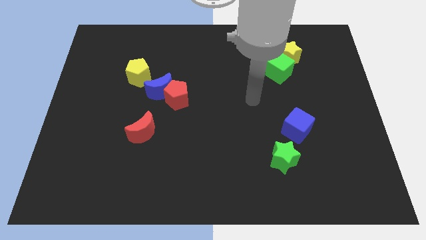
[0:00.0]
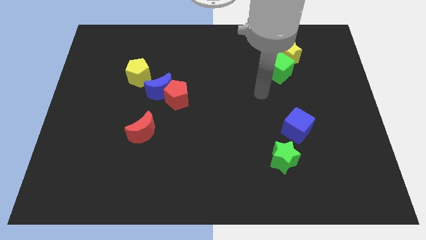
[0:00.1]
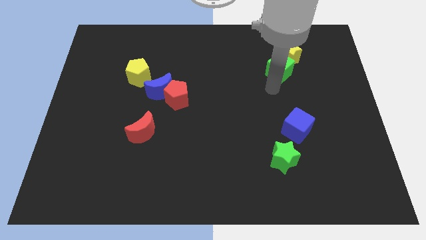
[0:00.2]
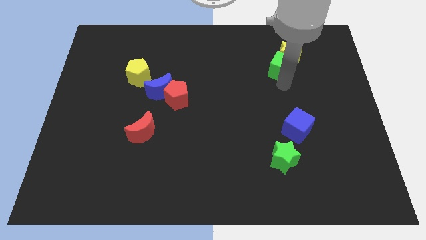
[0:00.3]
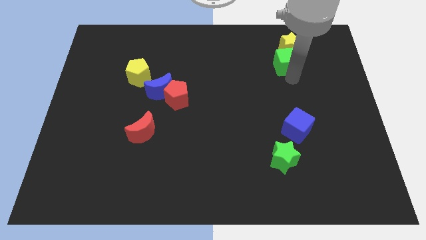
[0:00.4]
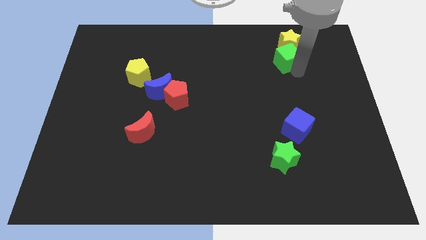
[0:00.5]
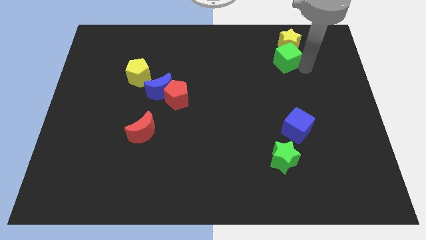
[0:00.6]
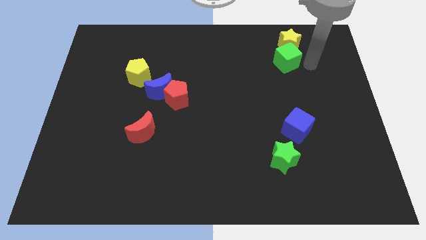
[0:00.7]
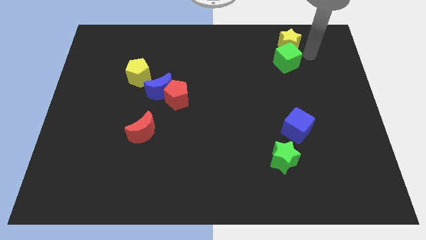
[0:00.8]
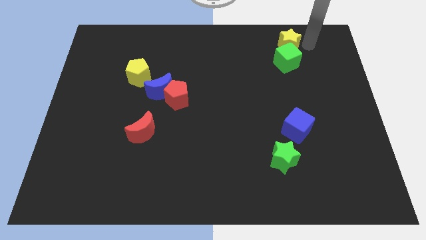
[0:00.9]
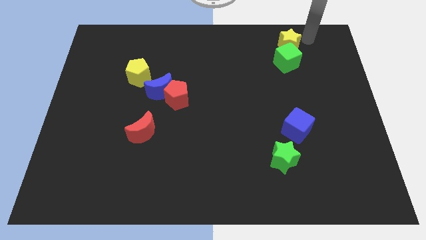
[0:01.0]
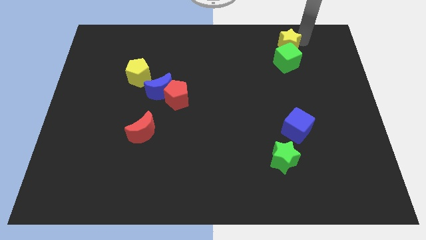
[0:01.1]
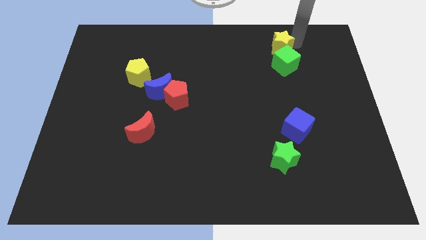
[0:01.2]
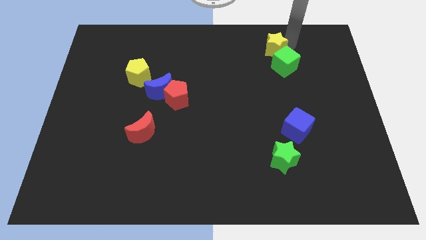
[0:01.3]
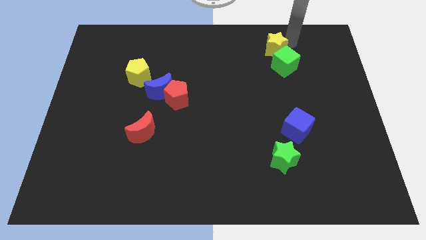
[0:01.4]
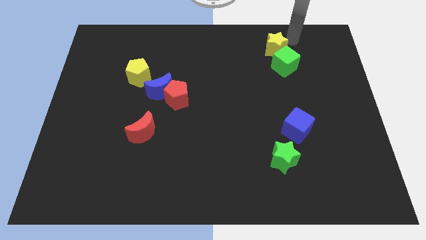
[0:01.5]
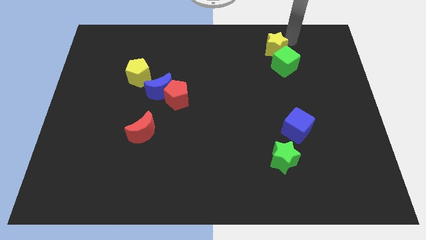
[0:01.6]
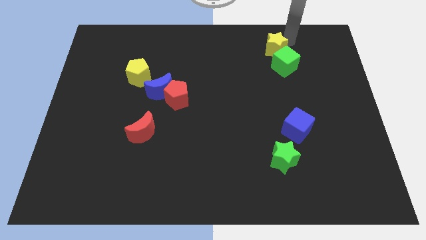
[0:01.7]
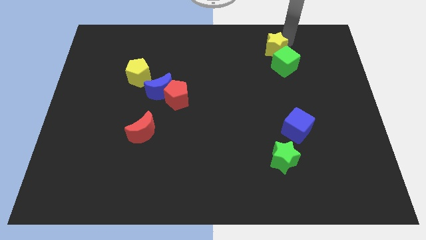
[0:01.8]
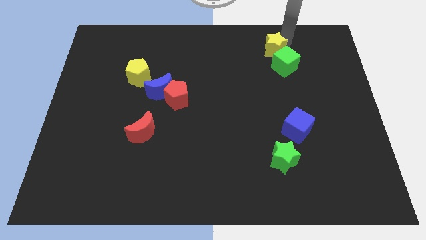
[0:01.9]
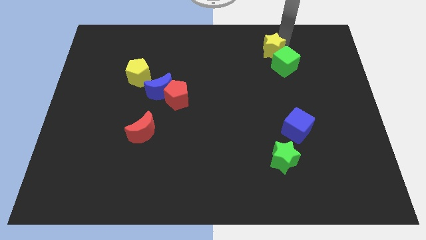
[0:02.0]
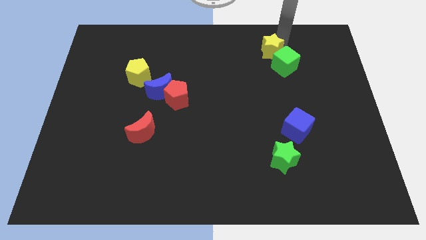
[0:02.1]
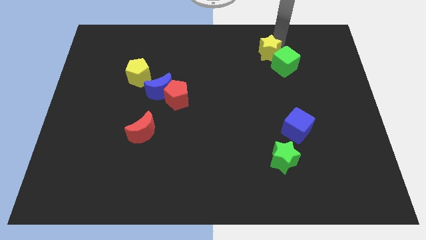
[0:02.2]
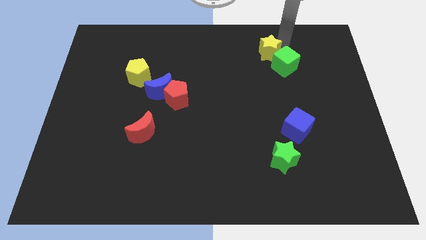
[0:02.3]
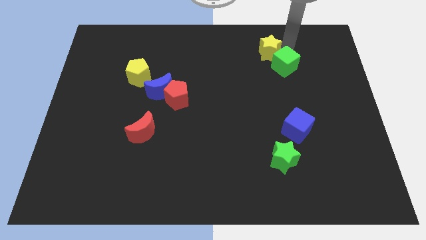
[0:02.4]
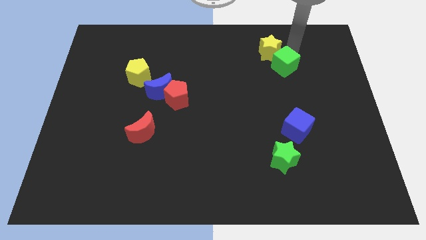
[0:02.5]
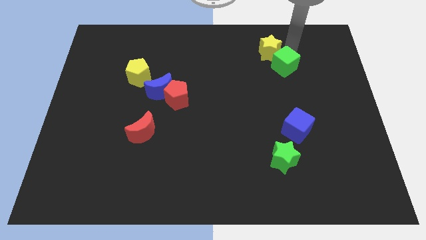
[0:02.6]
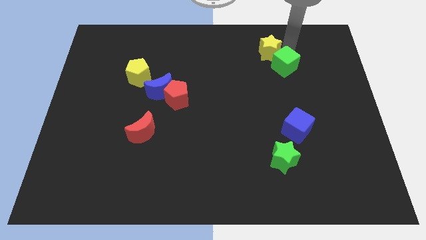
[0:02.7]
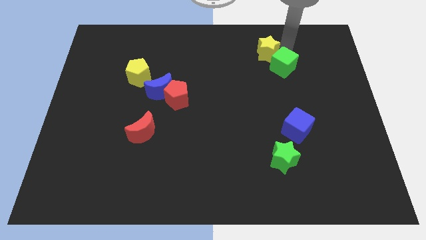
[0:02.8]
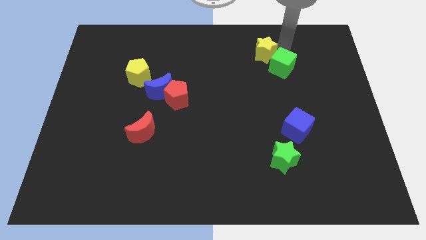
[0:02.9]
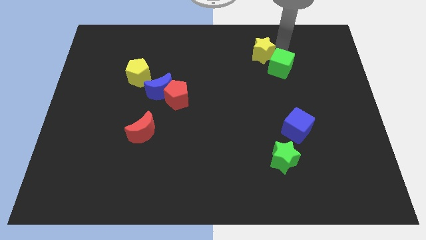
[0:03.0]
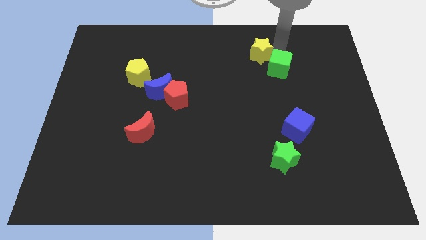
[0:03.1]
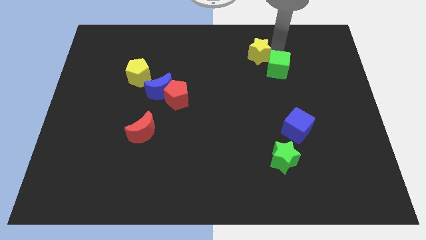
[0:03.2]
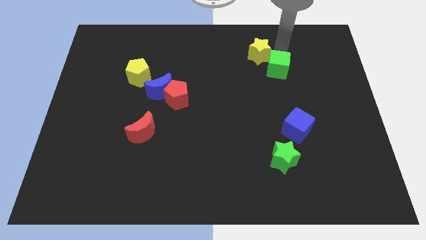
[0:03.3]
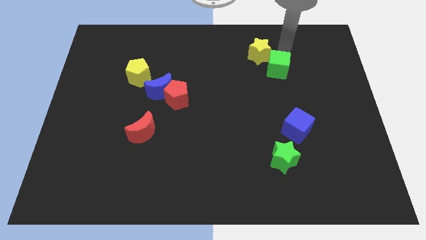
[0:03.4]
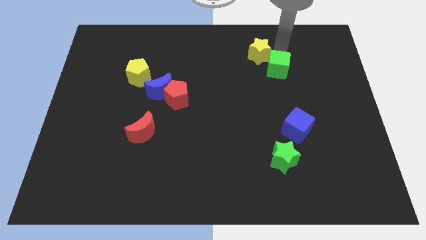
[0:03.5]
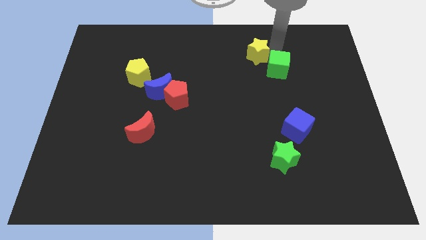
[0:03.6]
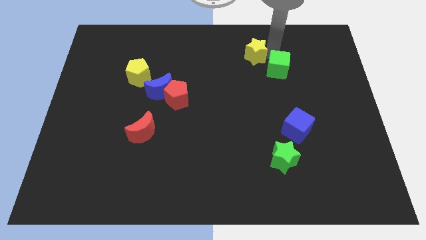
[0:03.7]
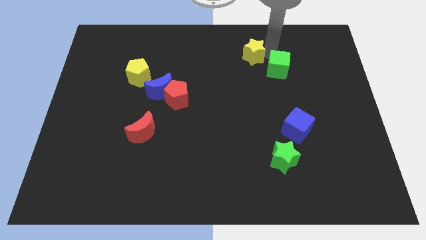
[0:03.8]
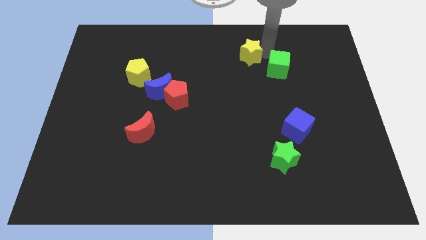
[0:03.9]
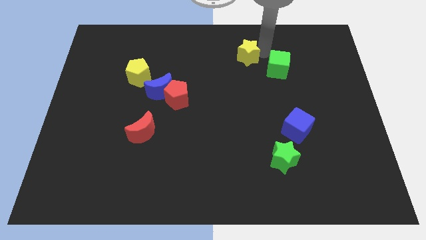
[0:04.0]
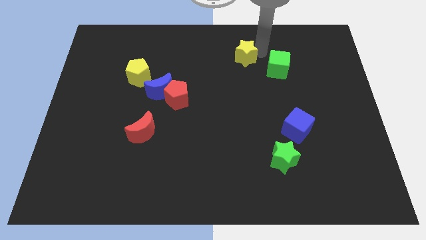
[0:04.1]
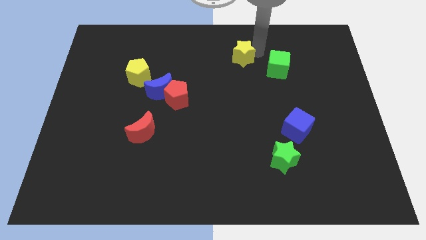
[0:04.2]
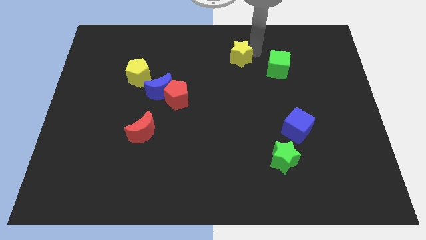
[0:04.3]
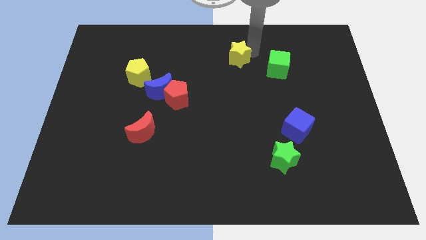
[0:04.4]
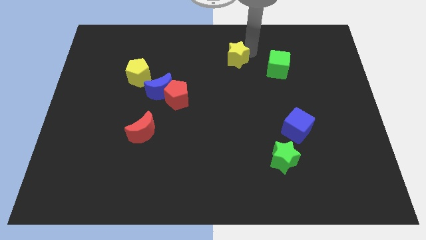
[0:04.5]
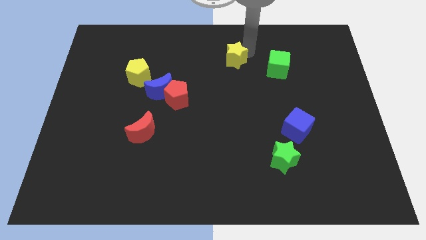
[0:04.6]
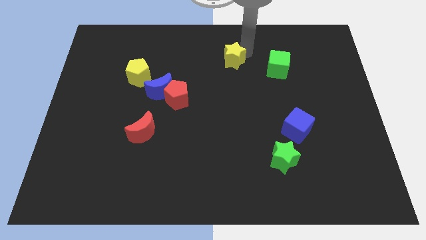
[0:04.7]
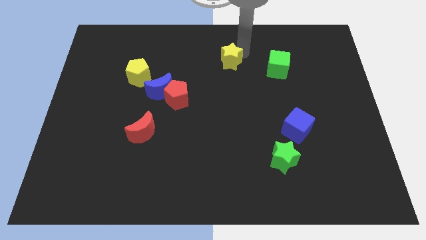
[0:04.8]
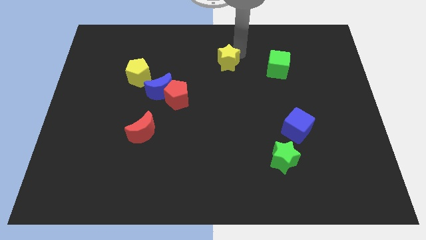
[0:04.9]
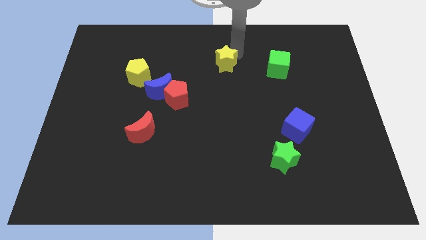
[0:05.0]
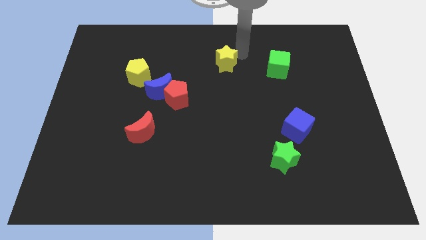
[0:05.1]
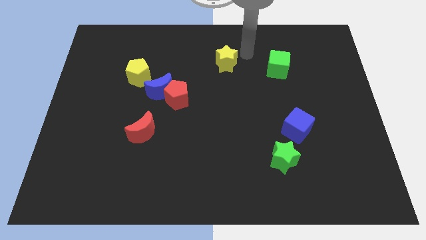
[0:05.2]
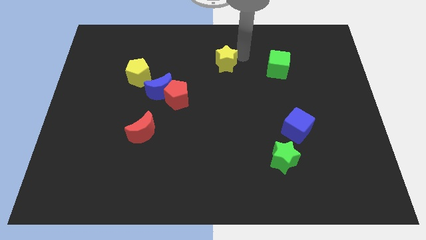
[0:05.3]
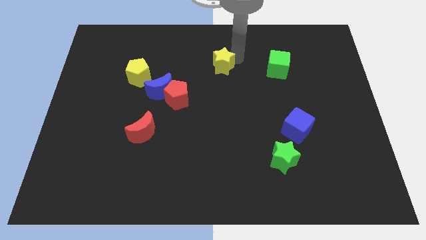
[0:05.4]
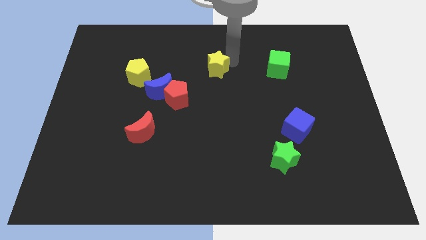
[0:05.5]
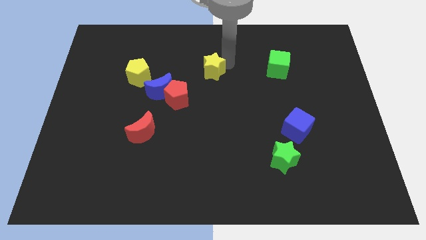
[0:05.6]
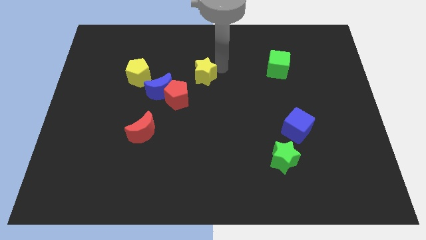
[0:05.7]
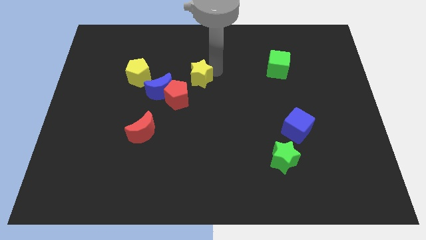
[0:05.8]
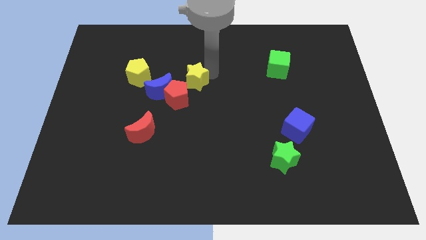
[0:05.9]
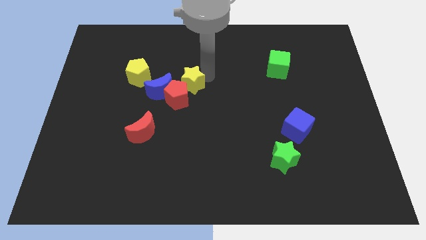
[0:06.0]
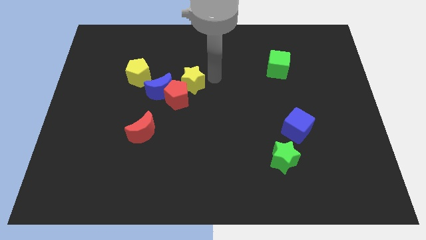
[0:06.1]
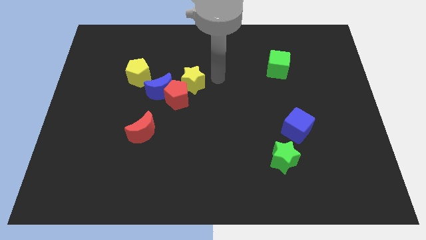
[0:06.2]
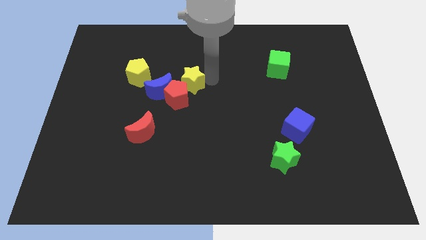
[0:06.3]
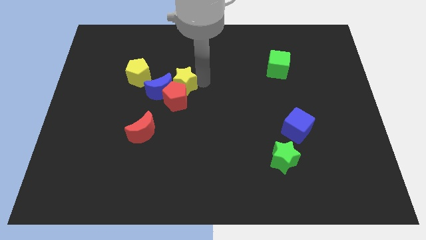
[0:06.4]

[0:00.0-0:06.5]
put the yellow star towards the blue moon

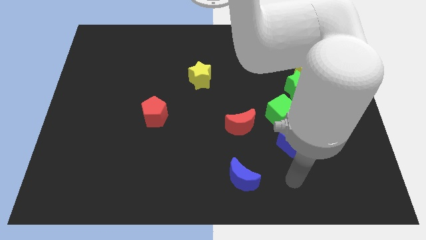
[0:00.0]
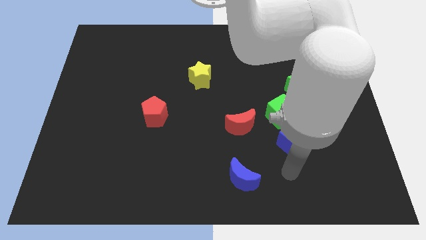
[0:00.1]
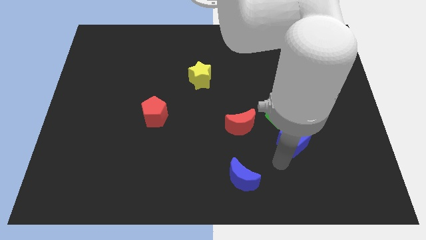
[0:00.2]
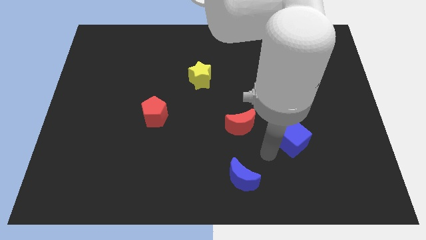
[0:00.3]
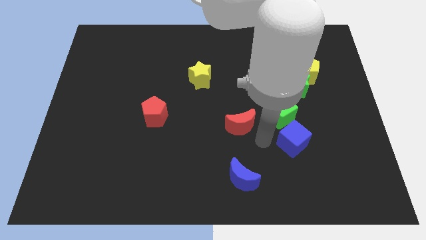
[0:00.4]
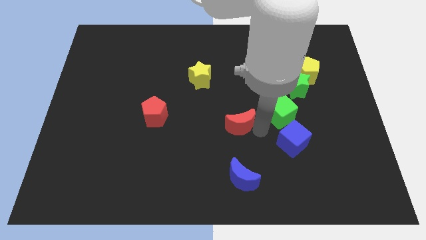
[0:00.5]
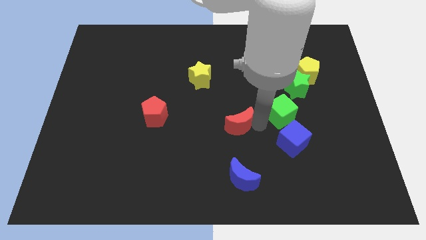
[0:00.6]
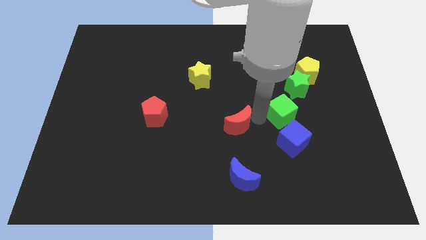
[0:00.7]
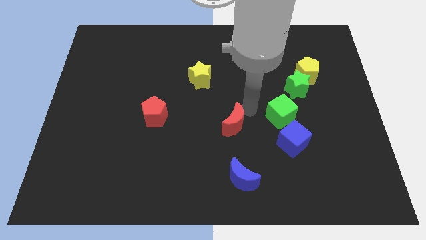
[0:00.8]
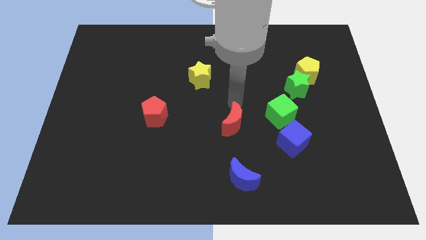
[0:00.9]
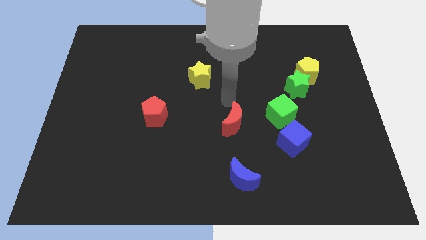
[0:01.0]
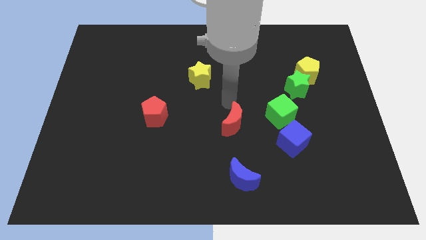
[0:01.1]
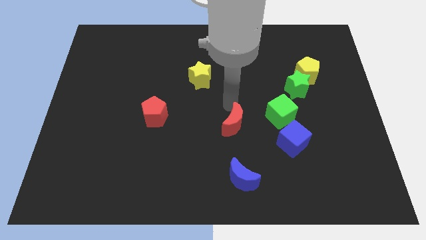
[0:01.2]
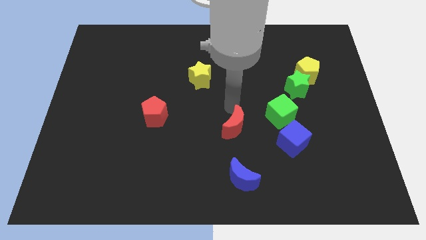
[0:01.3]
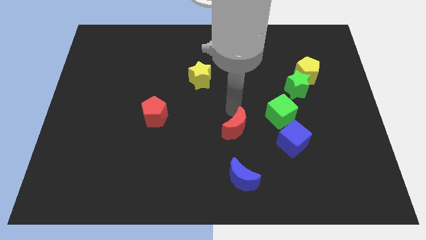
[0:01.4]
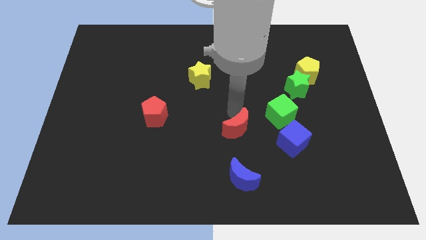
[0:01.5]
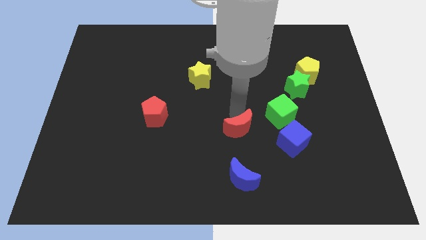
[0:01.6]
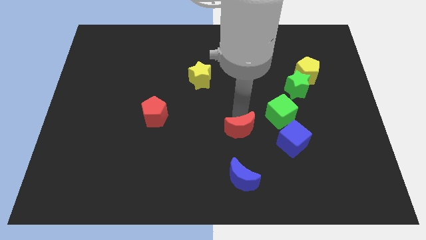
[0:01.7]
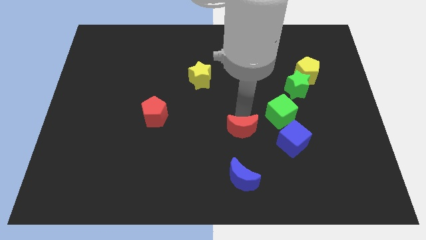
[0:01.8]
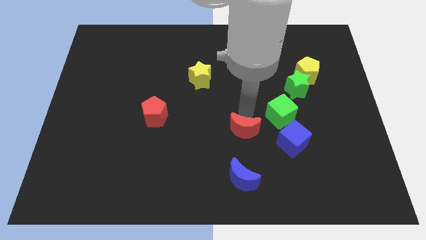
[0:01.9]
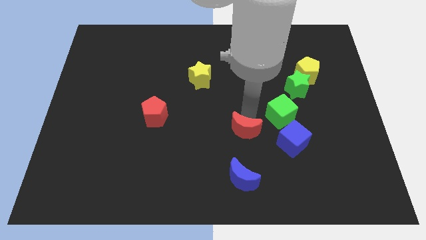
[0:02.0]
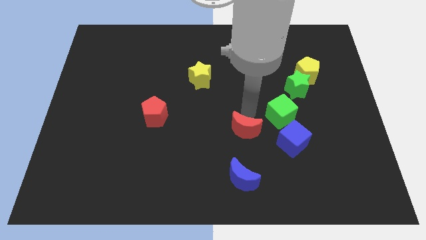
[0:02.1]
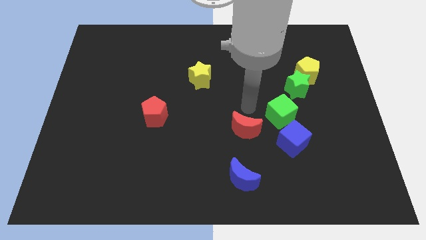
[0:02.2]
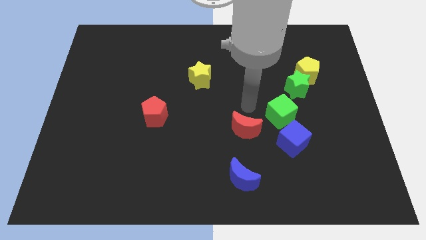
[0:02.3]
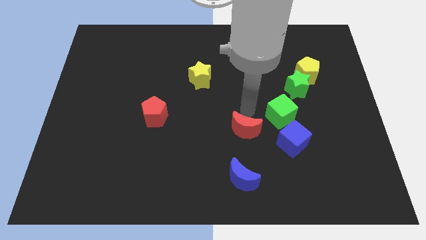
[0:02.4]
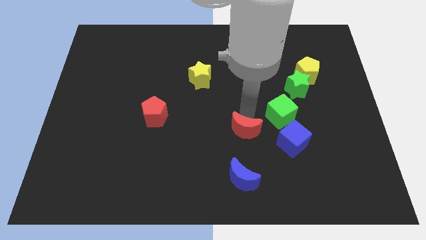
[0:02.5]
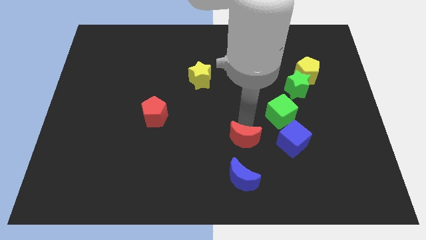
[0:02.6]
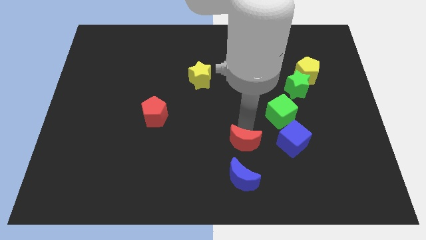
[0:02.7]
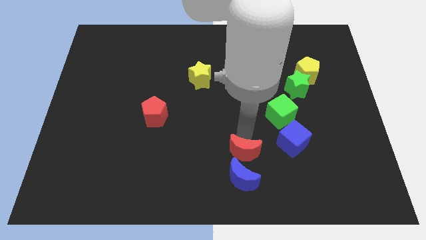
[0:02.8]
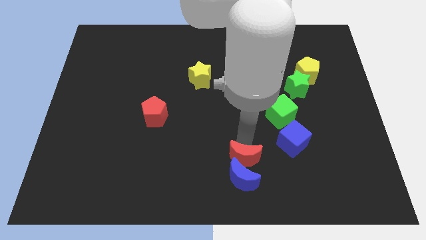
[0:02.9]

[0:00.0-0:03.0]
push the red moon next to the blue moon
